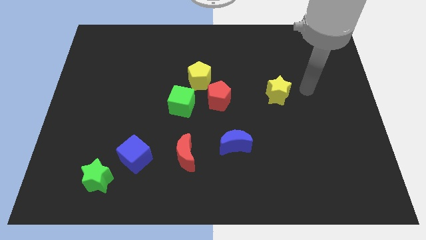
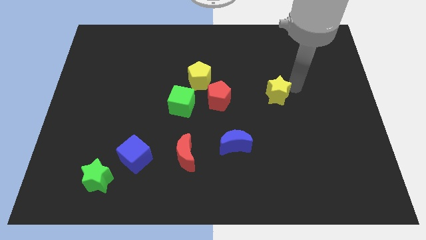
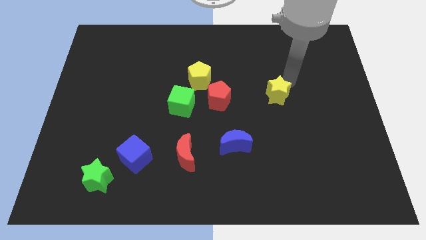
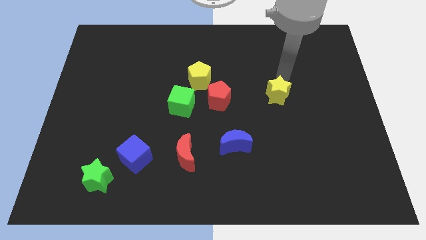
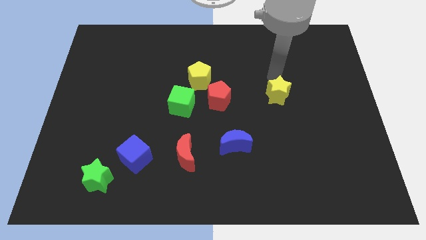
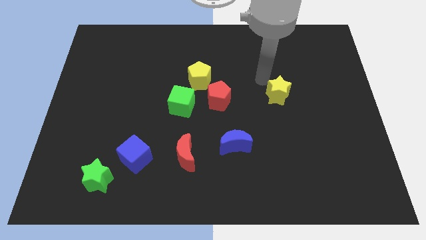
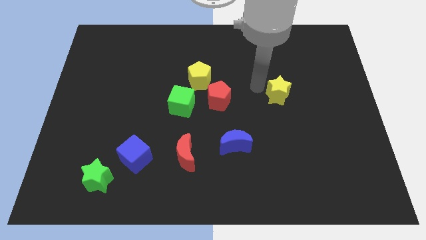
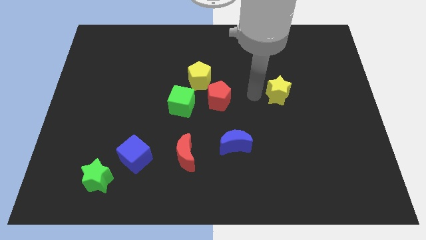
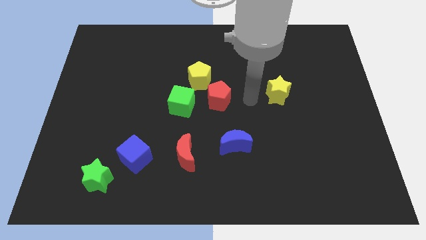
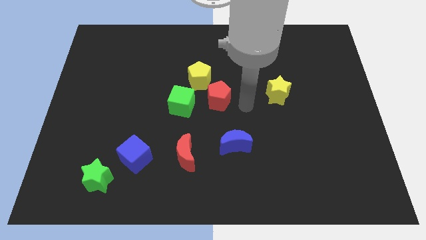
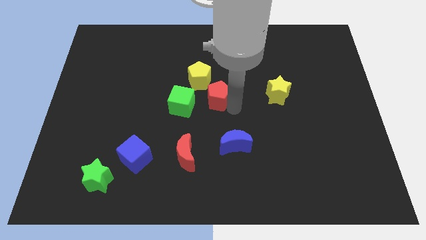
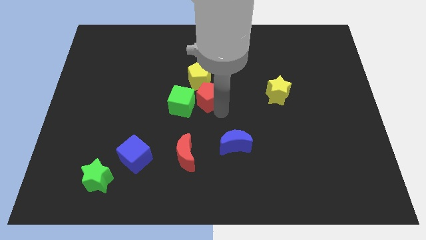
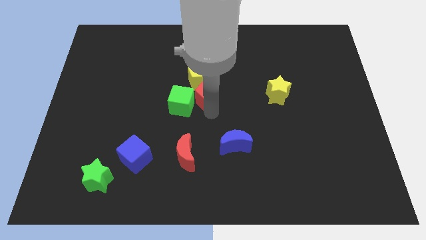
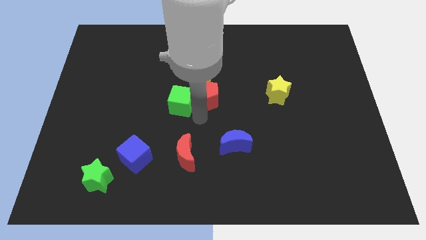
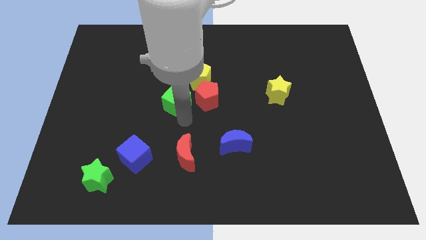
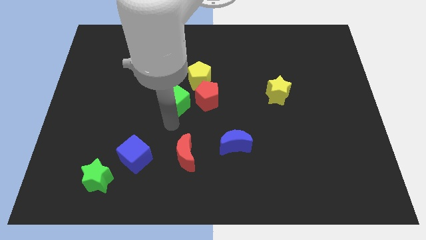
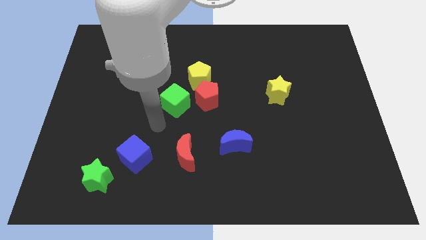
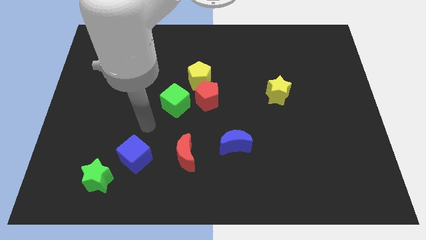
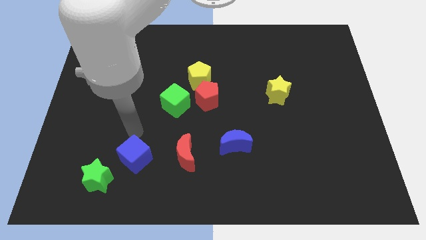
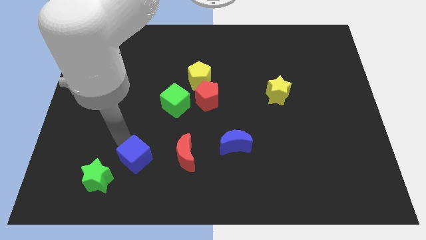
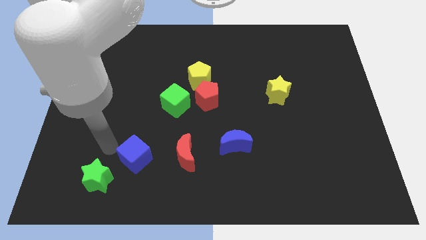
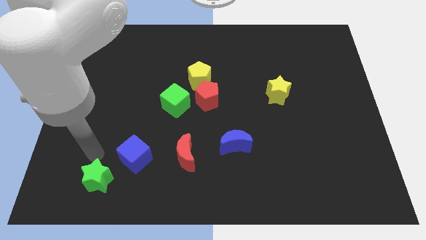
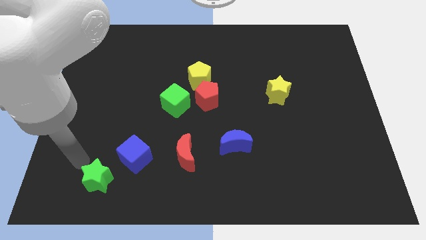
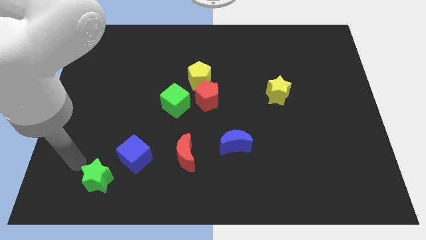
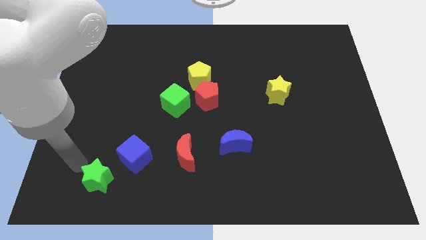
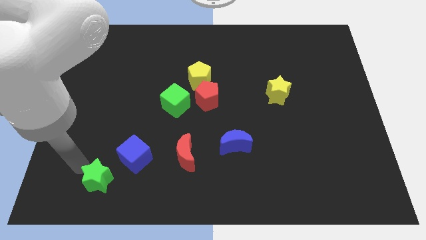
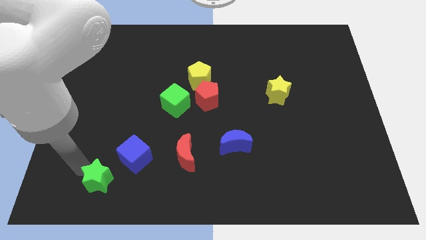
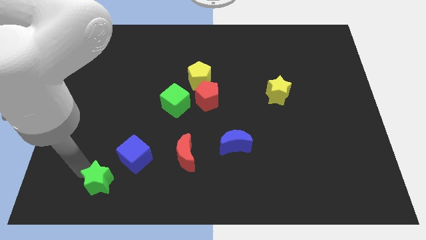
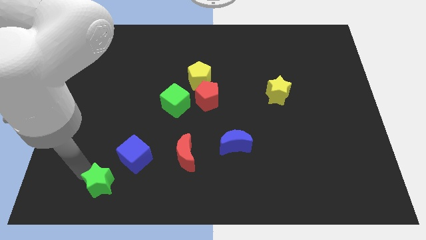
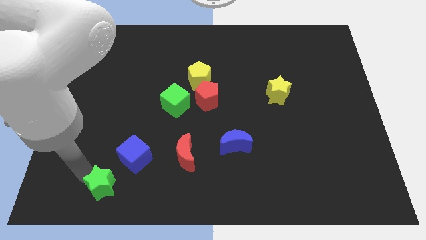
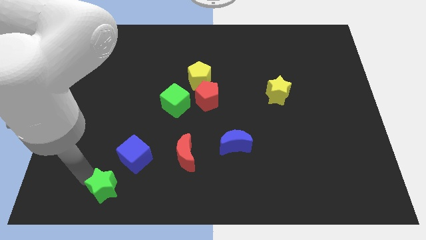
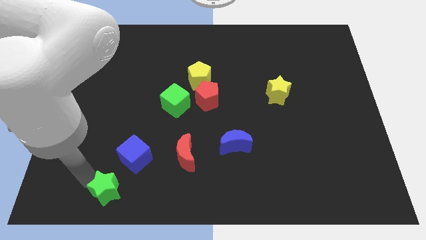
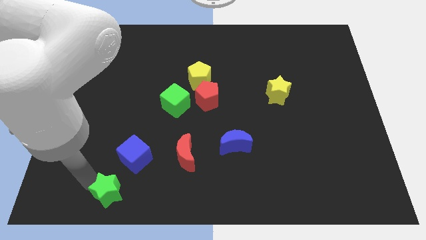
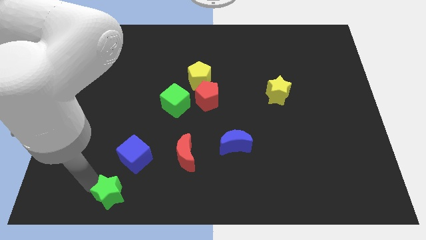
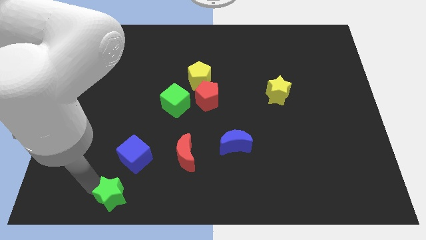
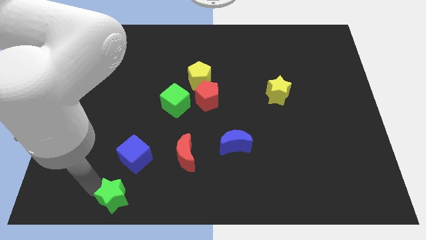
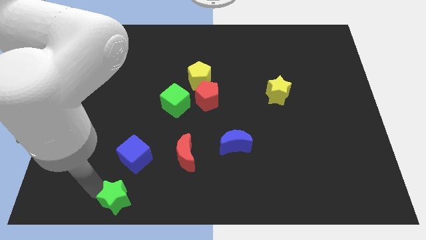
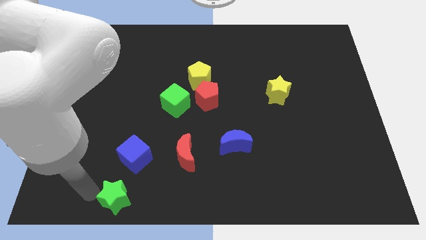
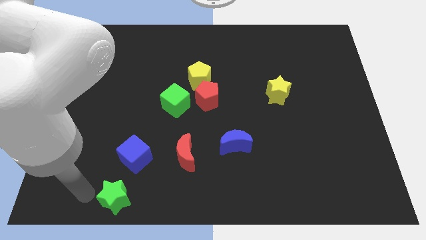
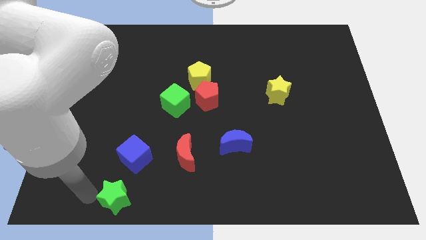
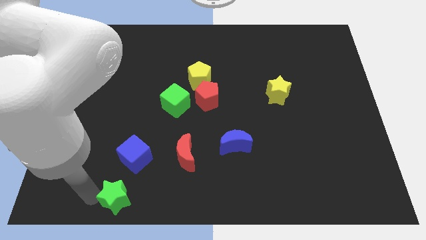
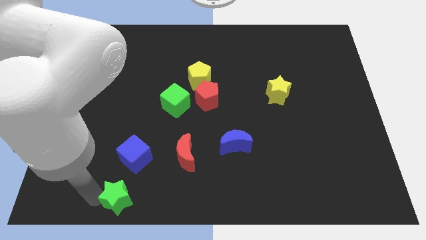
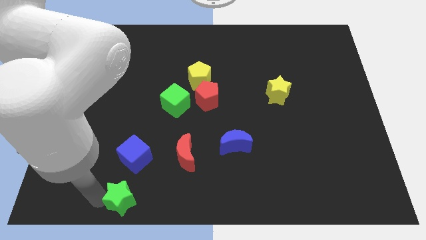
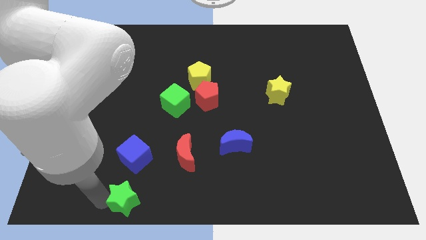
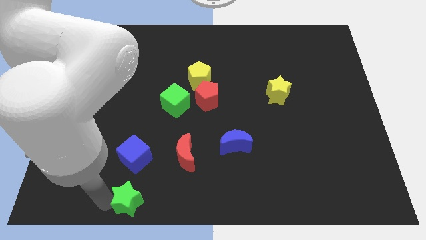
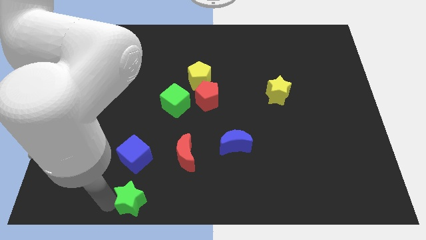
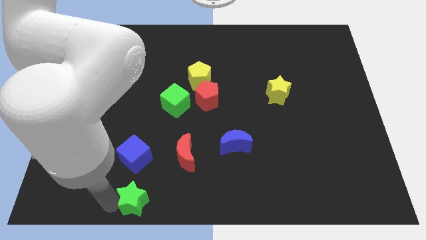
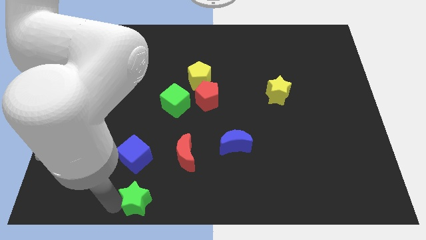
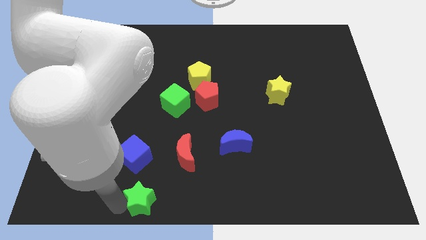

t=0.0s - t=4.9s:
move the green star to the bottom
